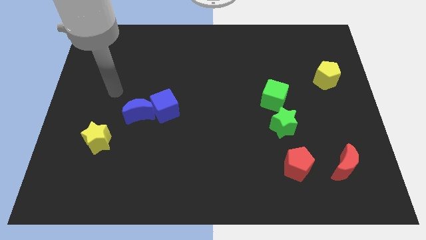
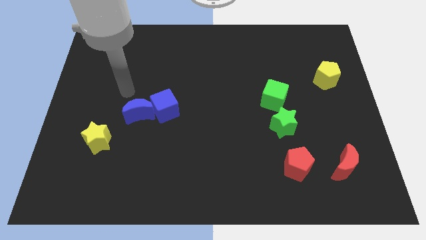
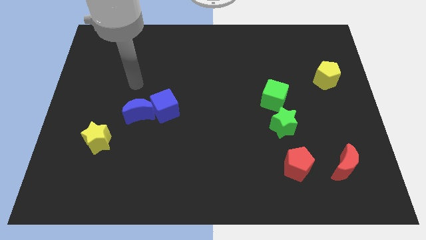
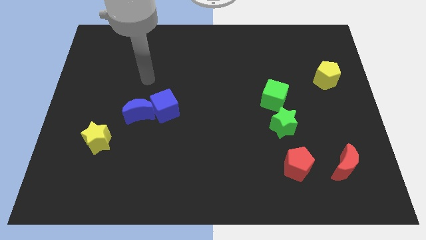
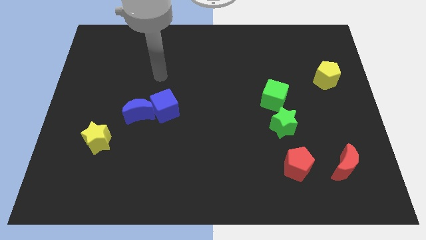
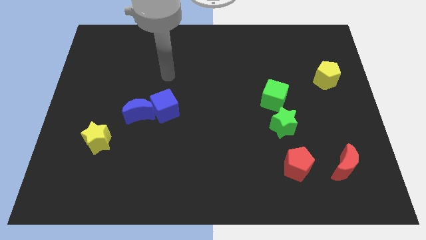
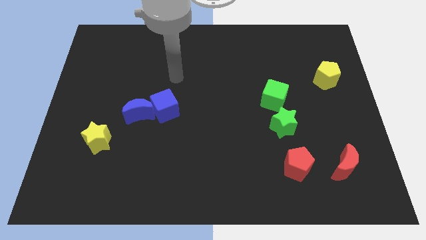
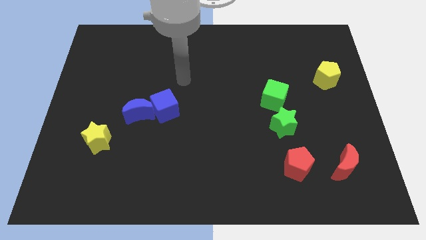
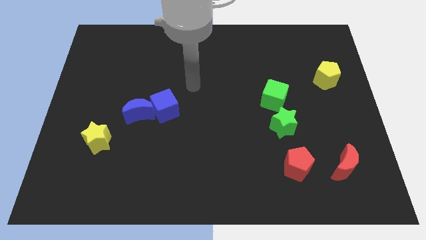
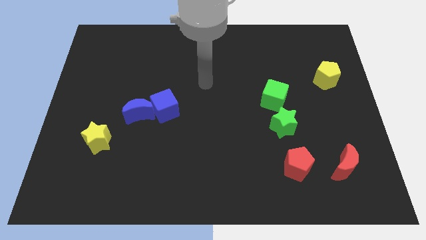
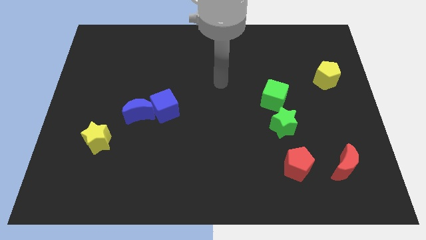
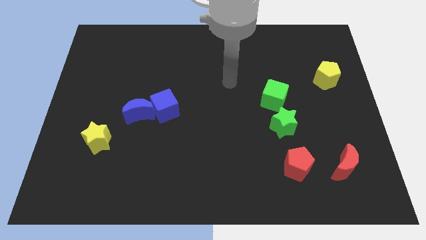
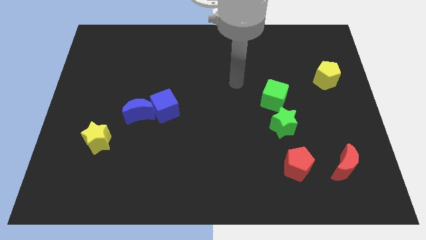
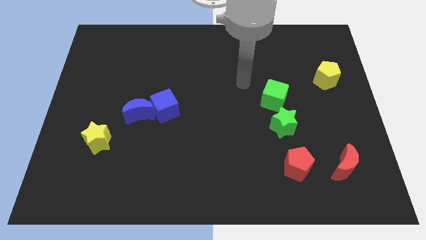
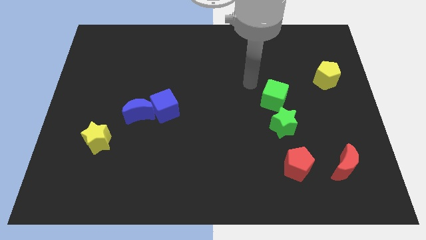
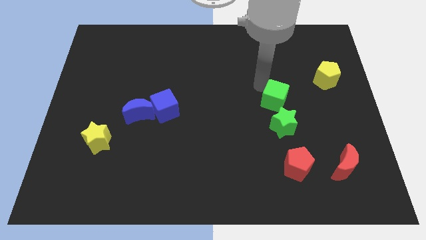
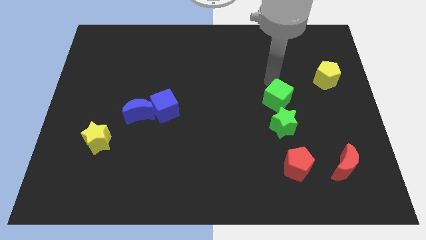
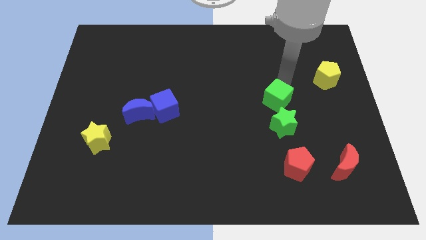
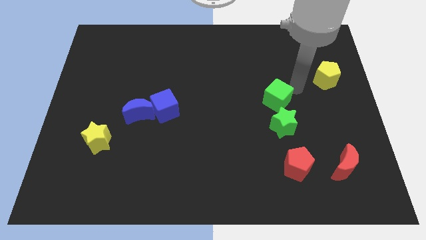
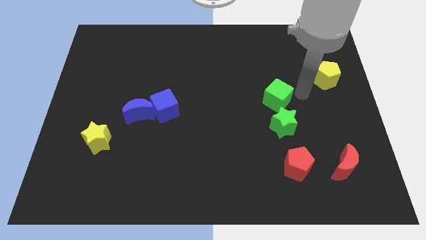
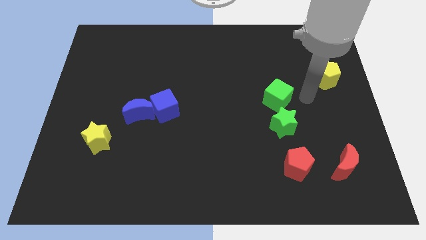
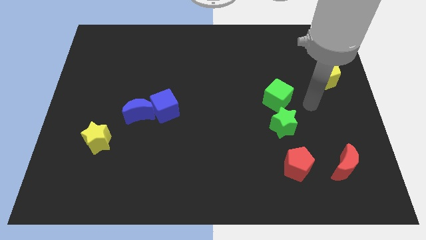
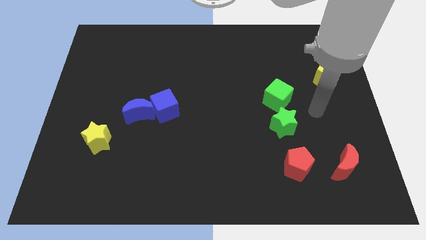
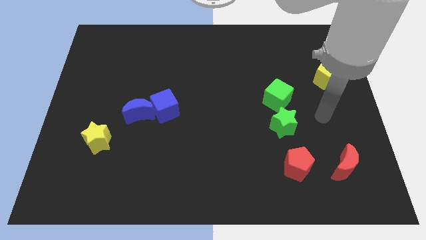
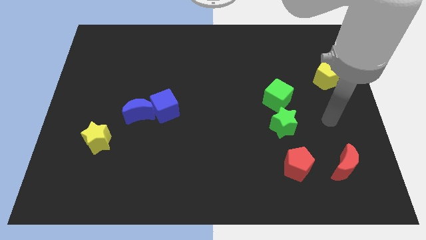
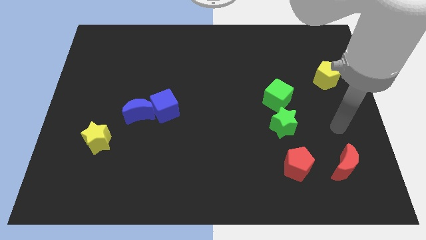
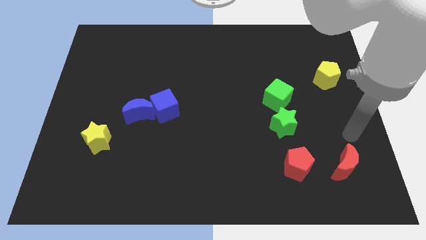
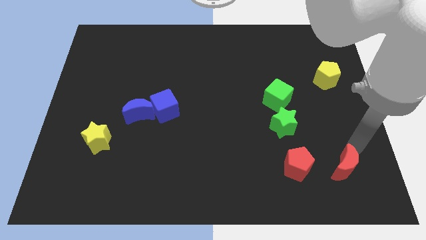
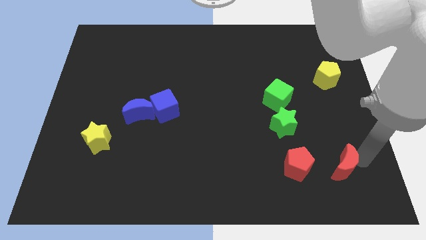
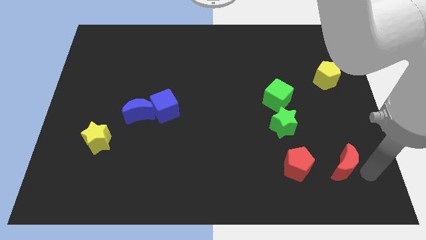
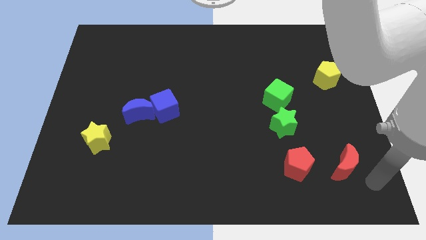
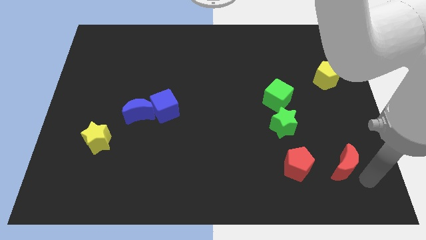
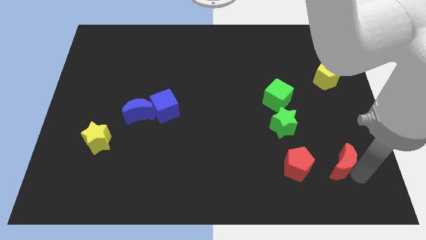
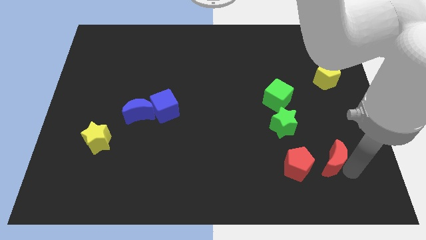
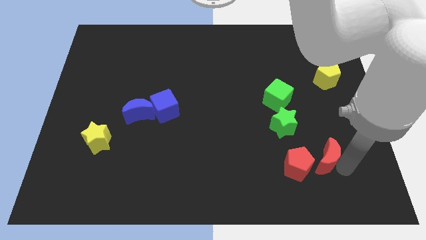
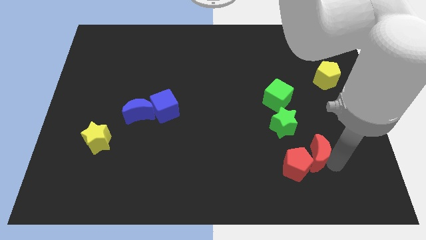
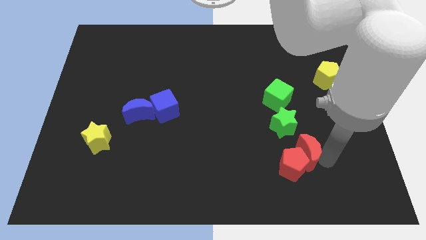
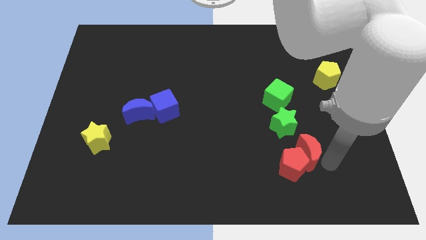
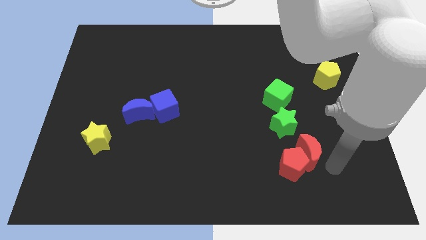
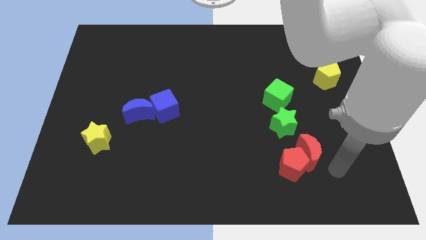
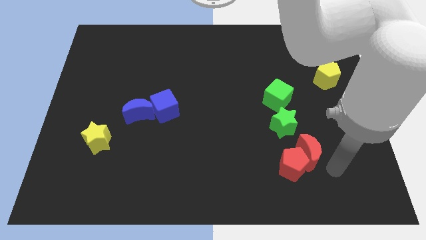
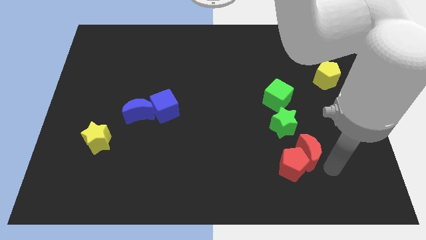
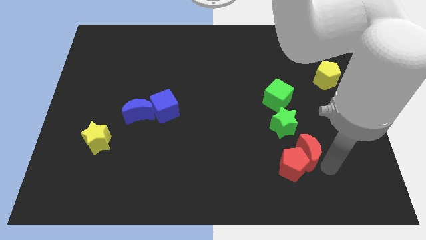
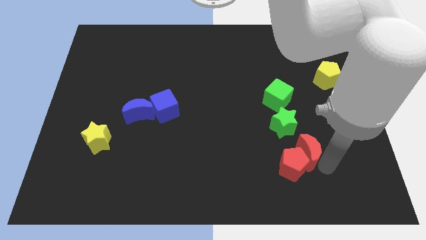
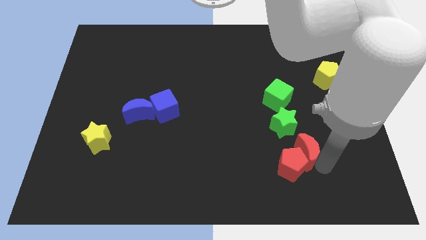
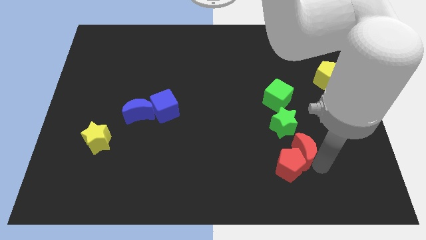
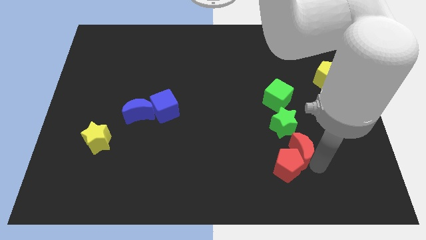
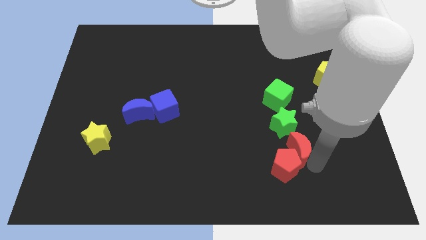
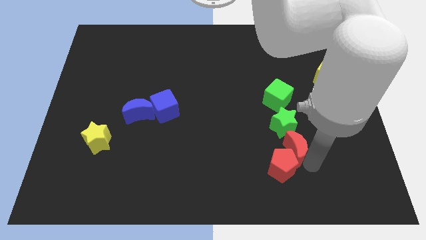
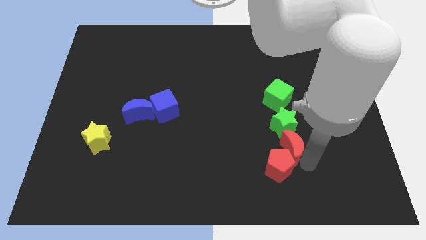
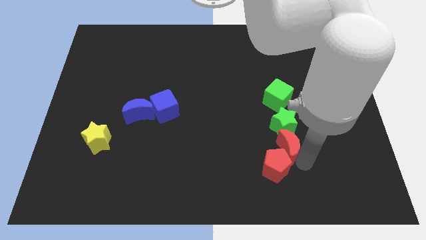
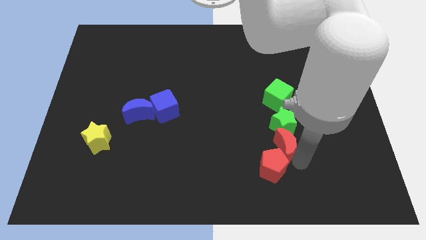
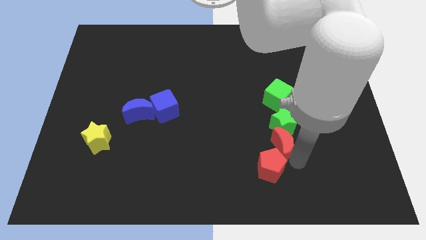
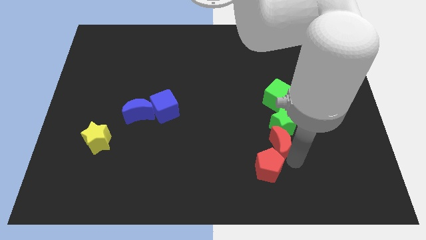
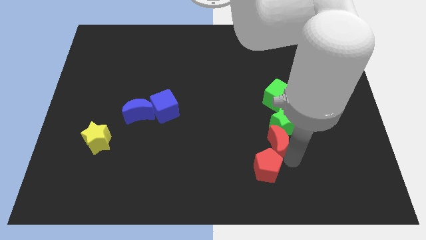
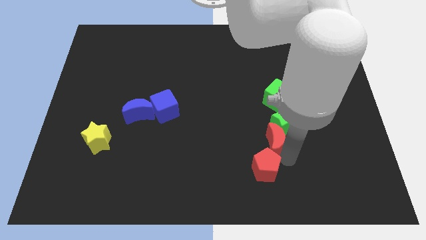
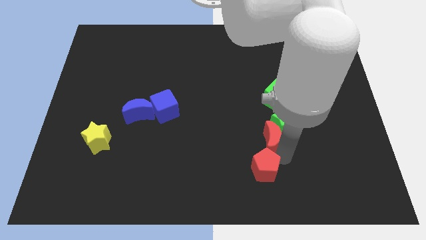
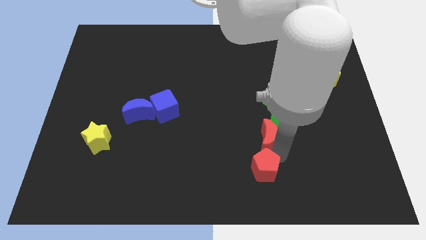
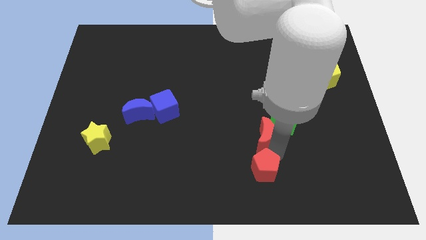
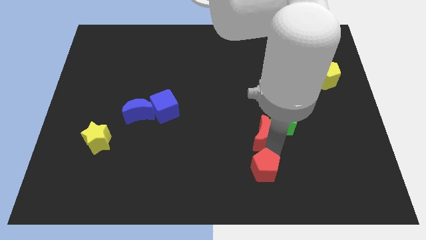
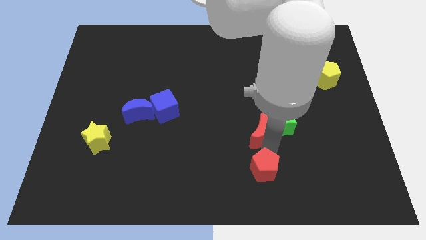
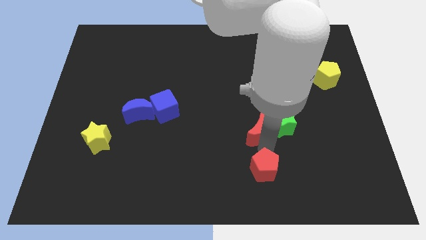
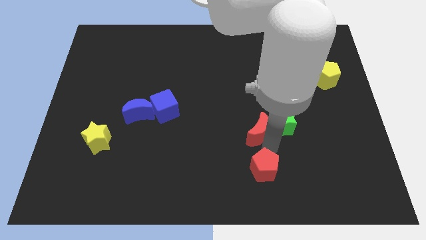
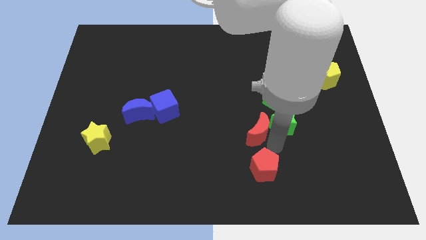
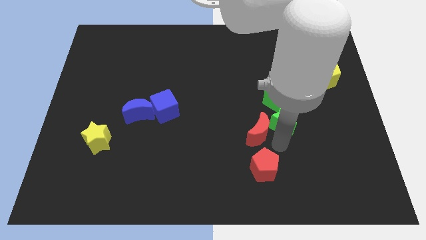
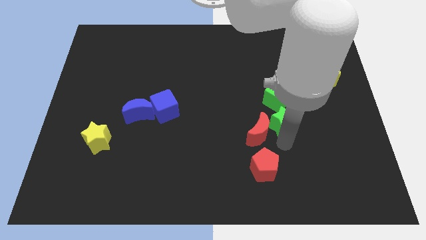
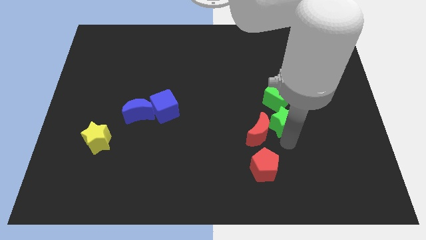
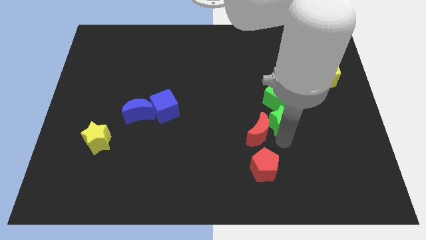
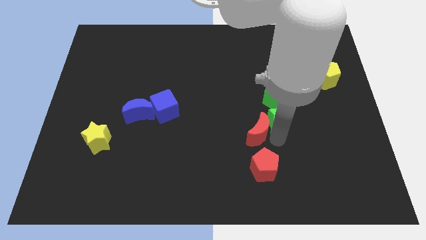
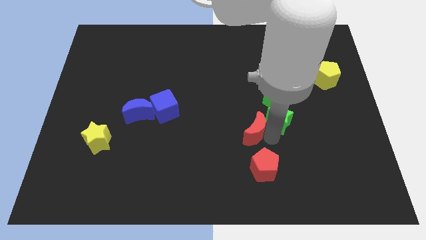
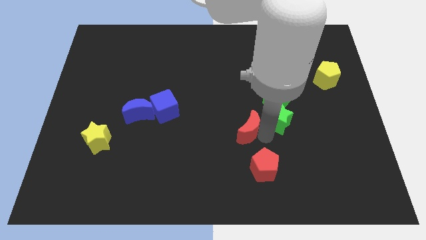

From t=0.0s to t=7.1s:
push the red moon to the center
